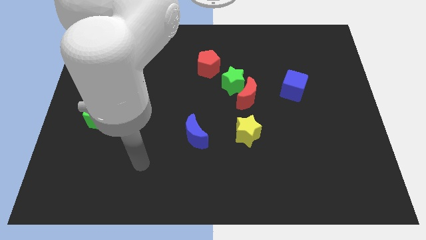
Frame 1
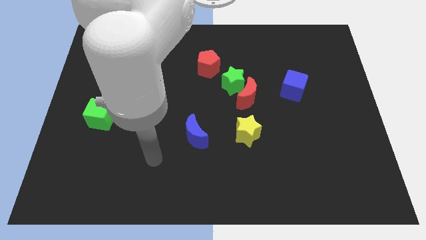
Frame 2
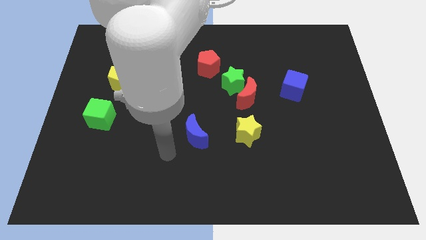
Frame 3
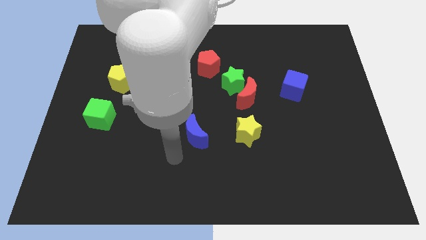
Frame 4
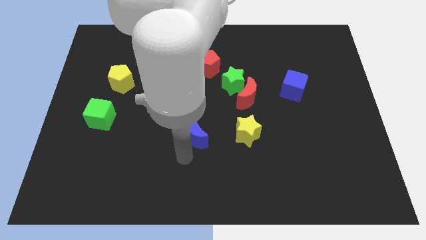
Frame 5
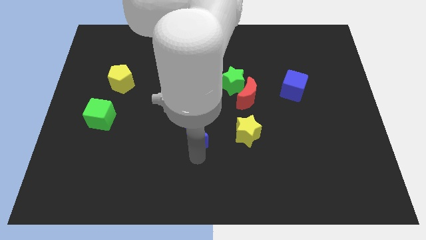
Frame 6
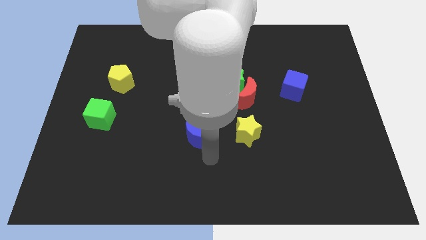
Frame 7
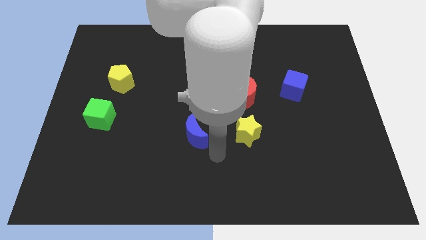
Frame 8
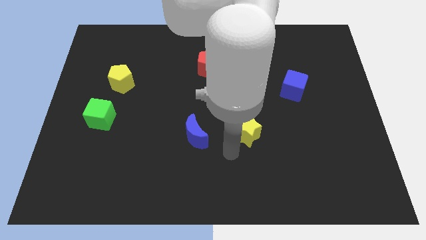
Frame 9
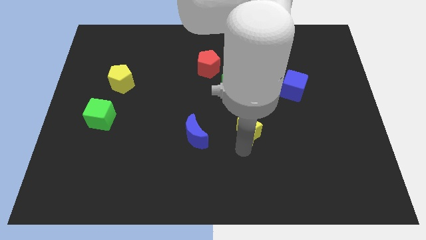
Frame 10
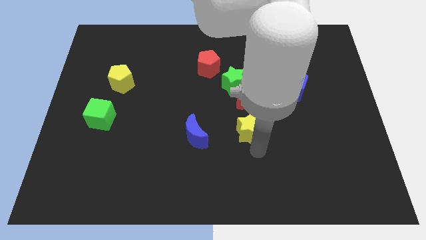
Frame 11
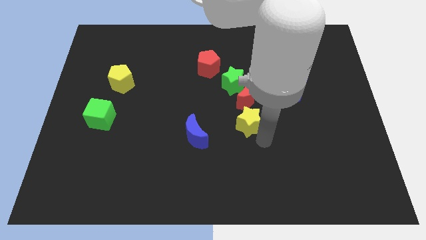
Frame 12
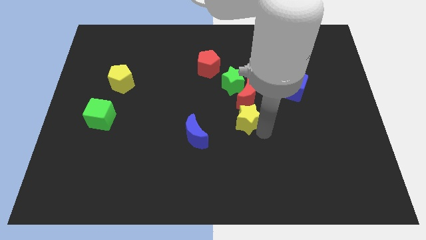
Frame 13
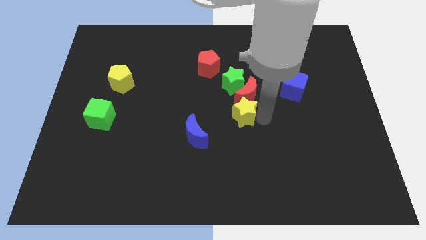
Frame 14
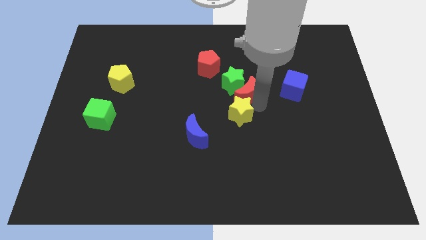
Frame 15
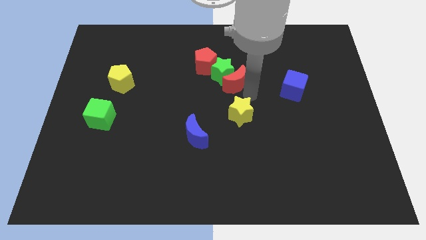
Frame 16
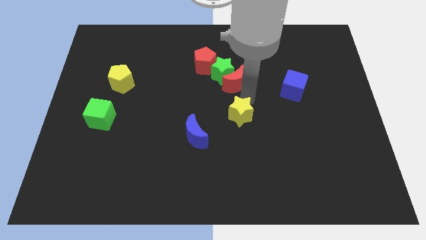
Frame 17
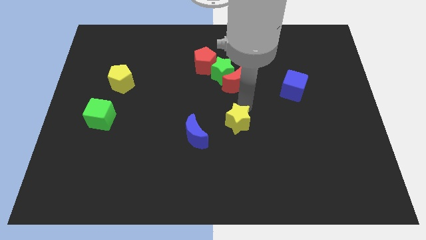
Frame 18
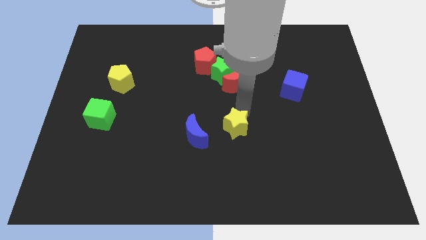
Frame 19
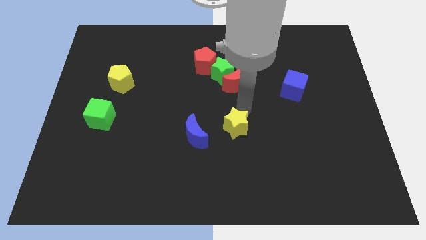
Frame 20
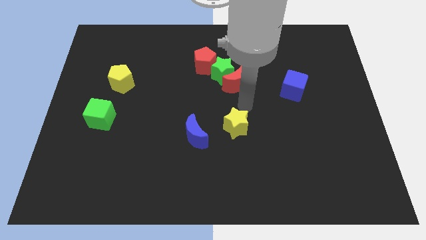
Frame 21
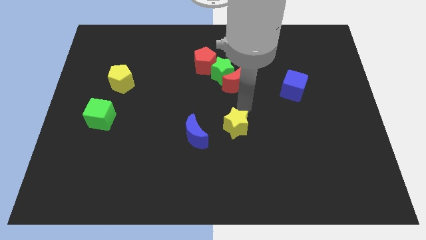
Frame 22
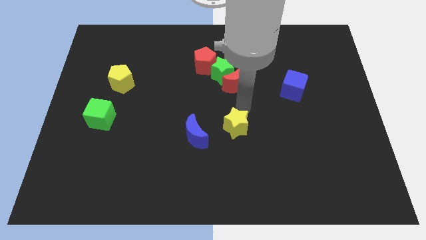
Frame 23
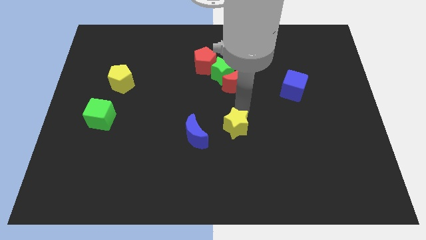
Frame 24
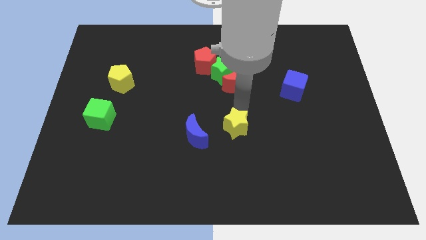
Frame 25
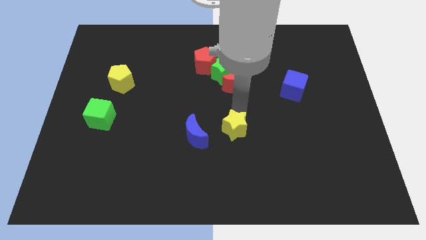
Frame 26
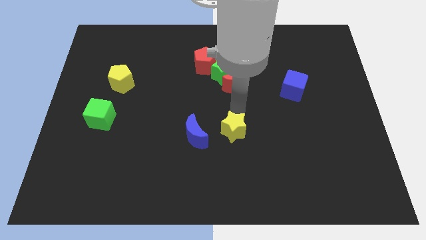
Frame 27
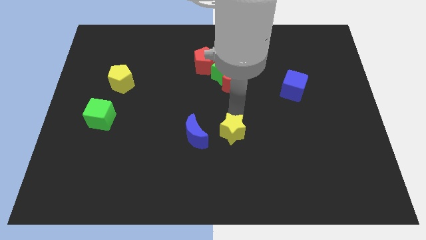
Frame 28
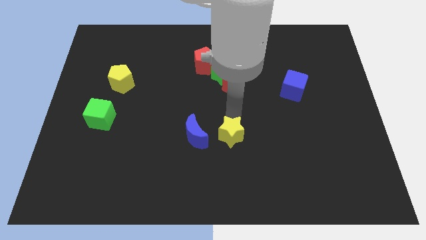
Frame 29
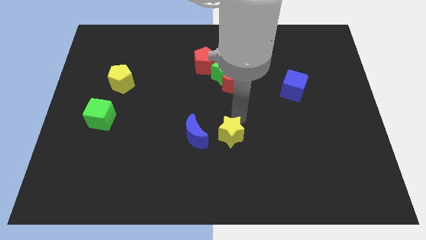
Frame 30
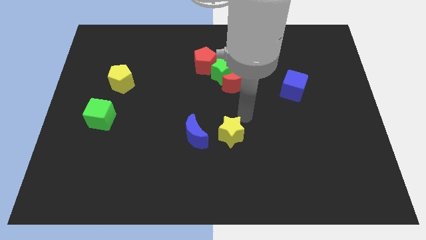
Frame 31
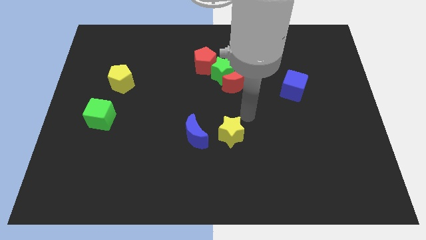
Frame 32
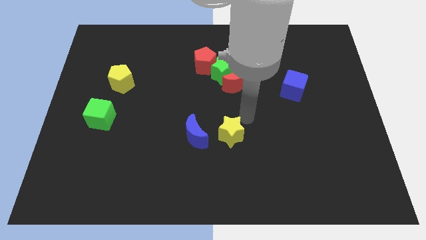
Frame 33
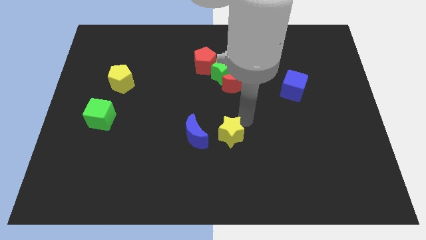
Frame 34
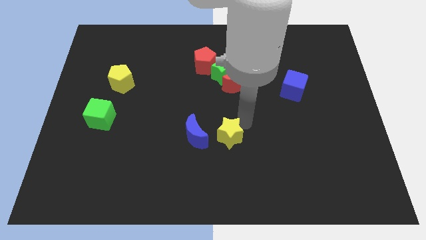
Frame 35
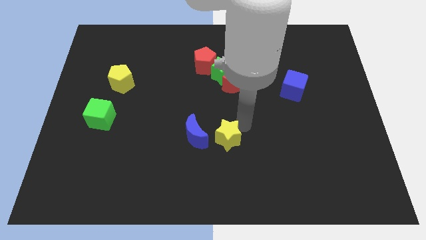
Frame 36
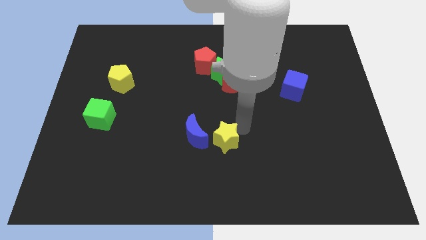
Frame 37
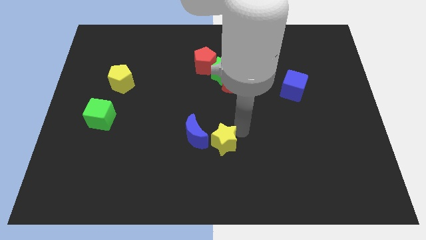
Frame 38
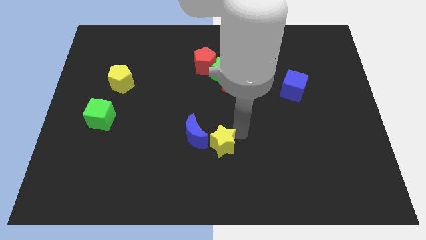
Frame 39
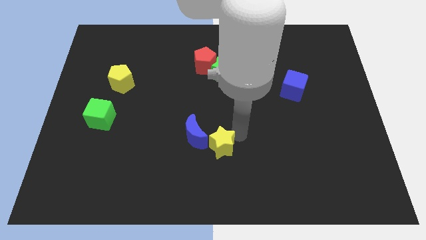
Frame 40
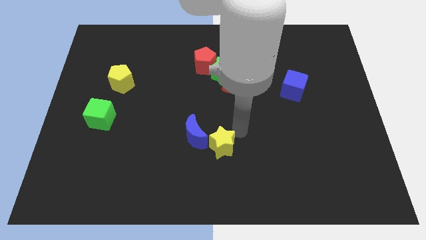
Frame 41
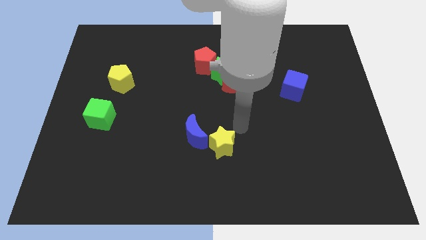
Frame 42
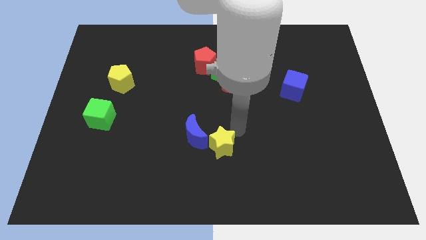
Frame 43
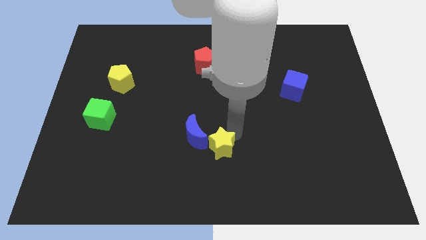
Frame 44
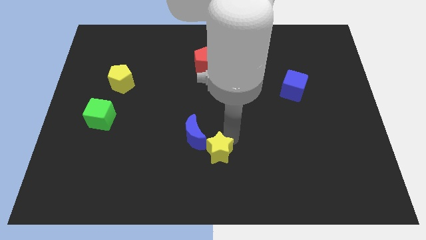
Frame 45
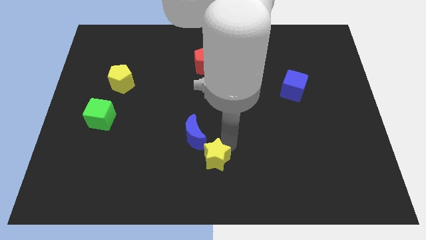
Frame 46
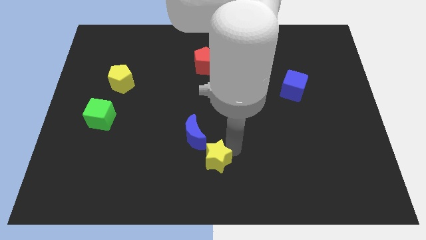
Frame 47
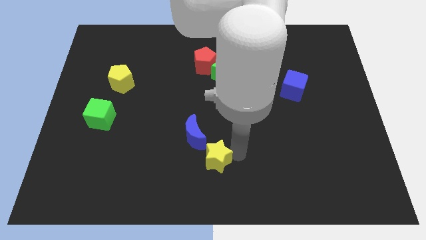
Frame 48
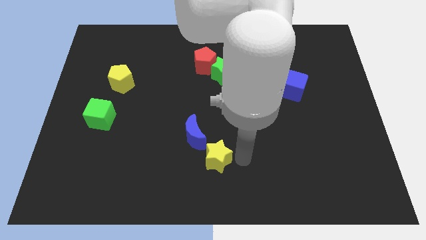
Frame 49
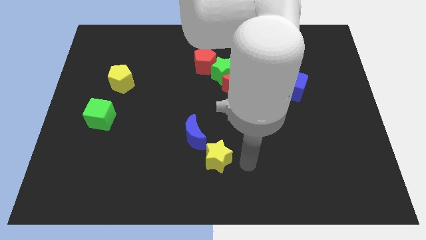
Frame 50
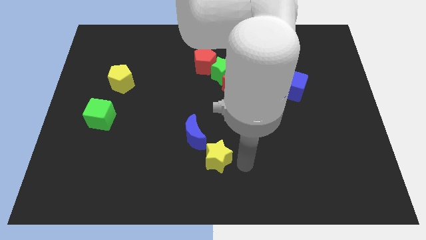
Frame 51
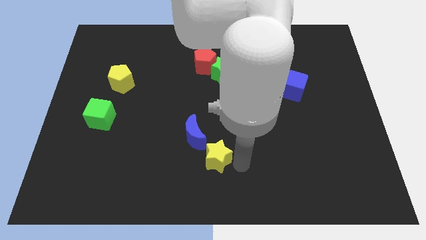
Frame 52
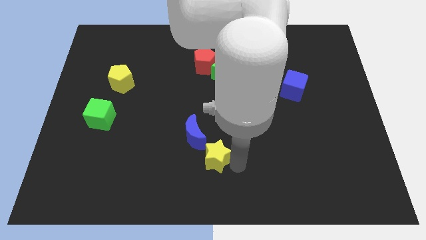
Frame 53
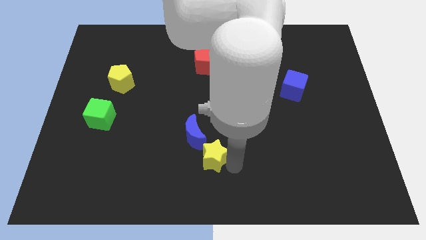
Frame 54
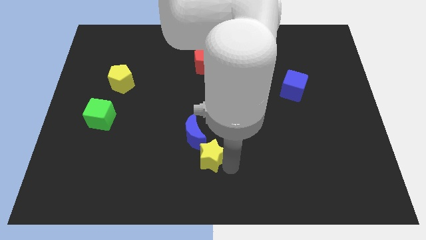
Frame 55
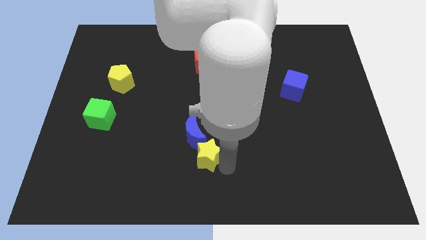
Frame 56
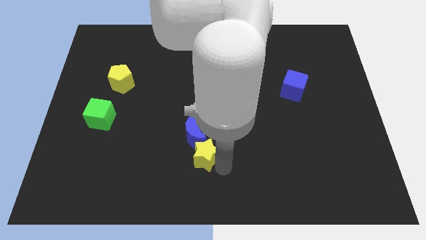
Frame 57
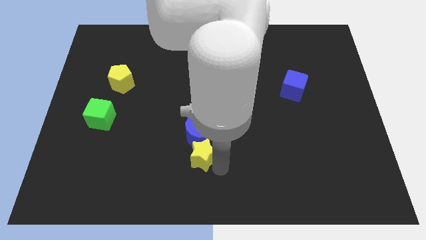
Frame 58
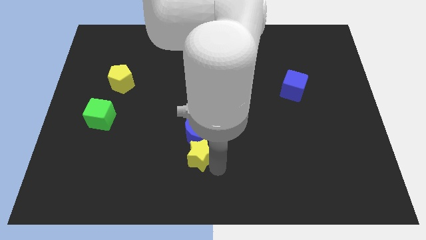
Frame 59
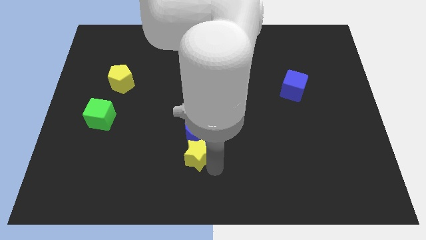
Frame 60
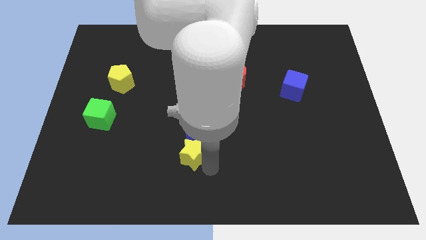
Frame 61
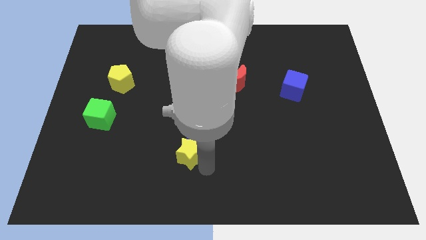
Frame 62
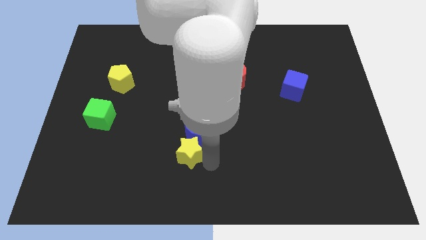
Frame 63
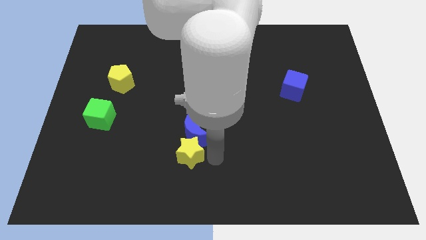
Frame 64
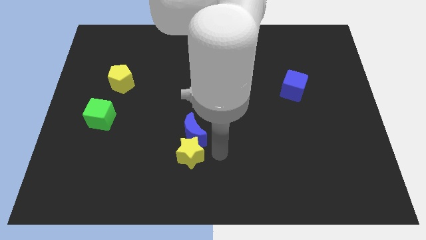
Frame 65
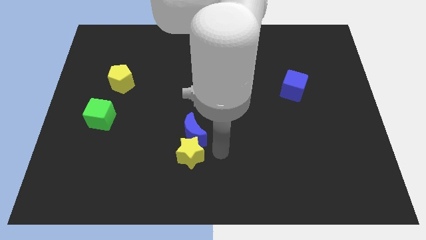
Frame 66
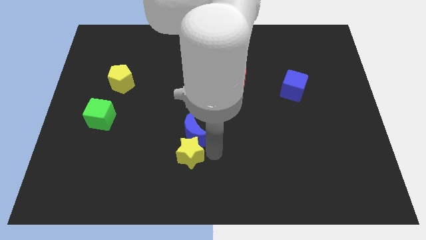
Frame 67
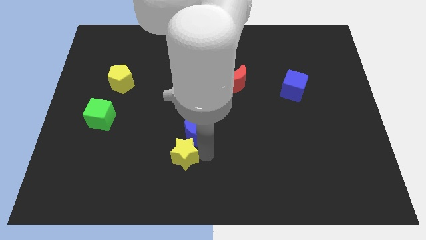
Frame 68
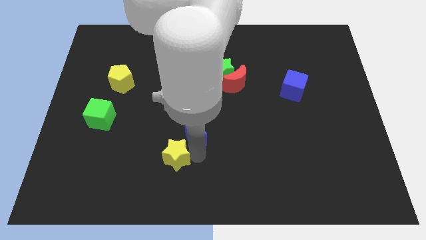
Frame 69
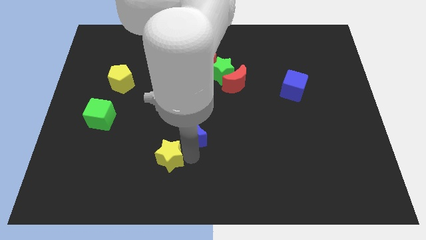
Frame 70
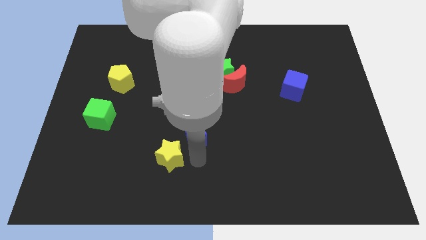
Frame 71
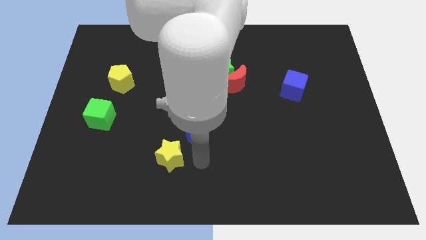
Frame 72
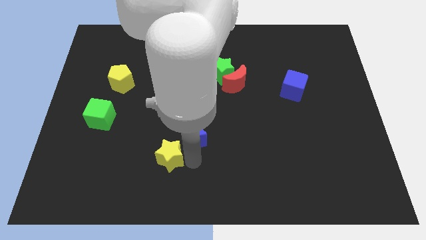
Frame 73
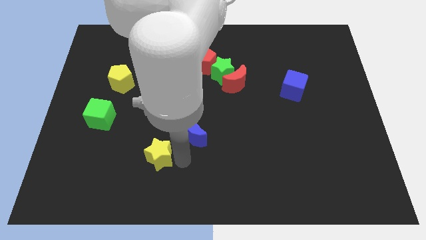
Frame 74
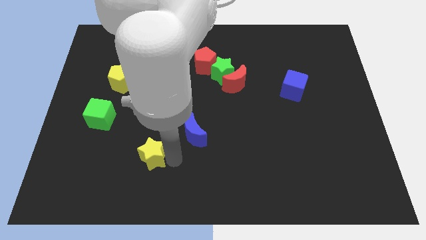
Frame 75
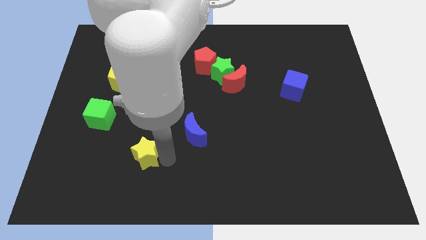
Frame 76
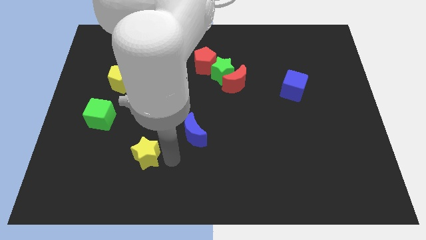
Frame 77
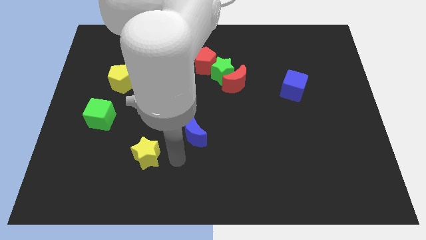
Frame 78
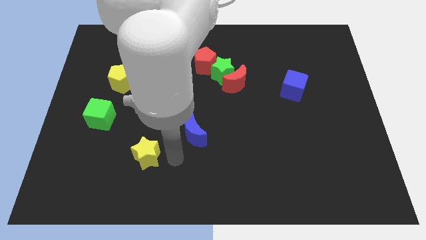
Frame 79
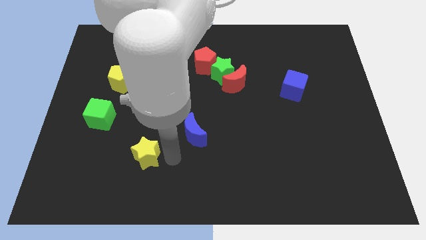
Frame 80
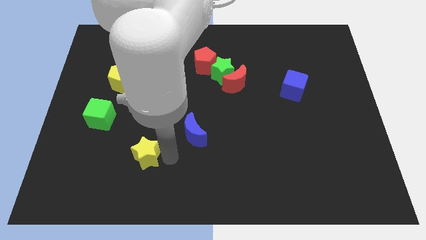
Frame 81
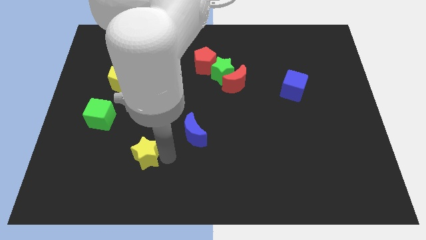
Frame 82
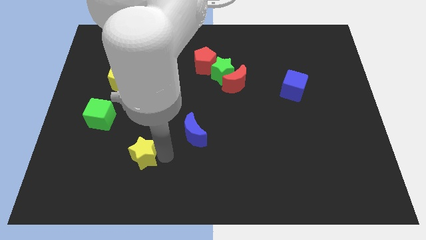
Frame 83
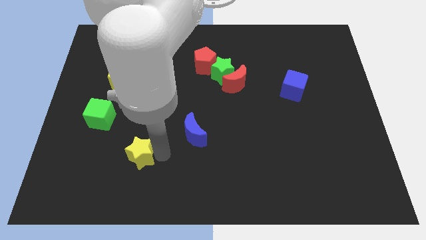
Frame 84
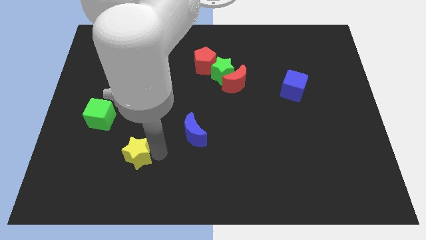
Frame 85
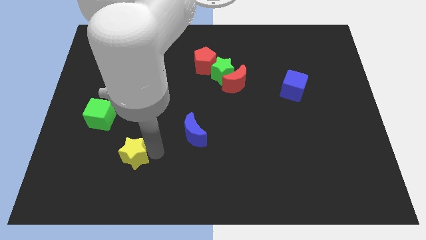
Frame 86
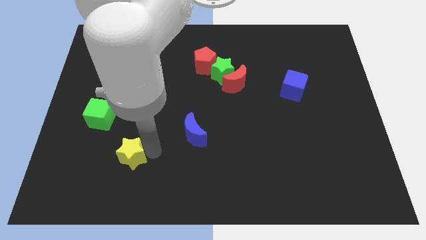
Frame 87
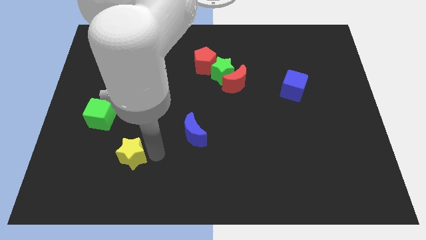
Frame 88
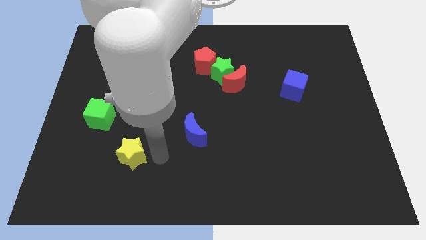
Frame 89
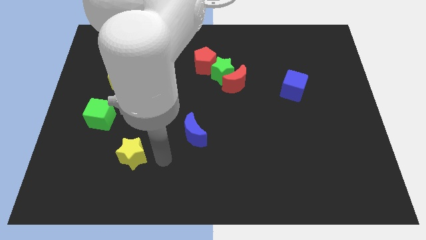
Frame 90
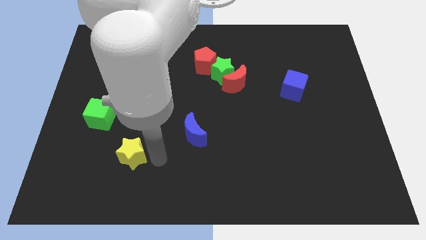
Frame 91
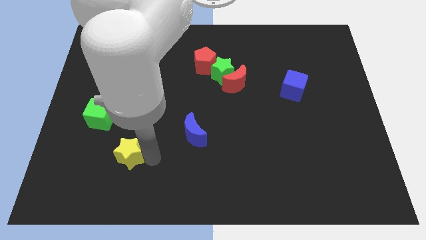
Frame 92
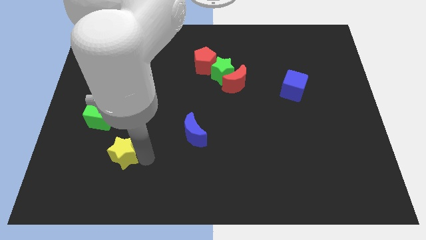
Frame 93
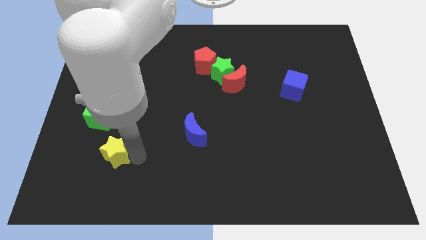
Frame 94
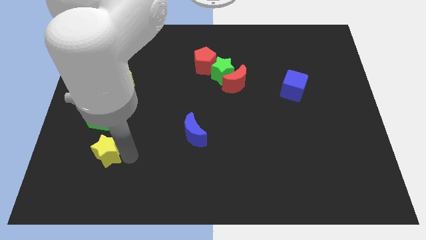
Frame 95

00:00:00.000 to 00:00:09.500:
slide the yellow star below the green cube
